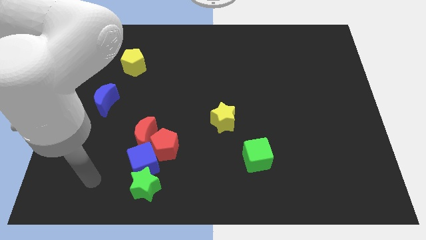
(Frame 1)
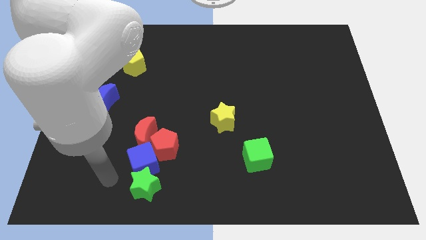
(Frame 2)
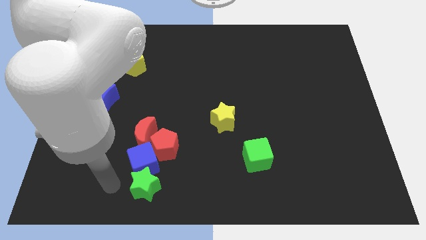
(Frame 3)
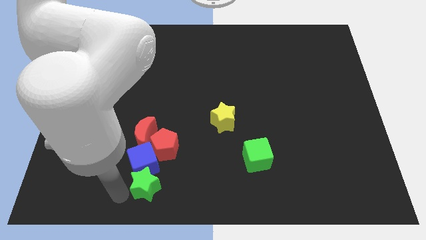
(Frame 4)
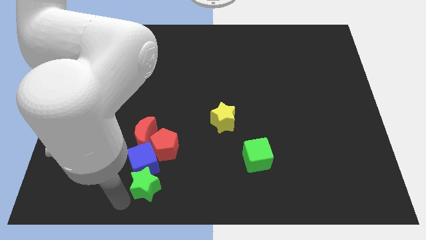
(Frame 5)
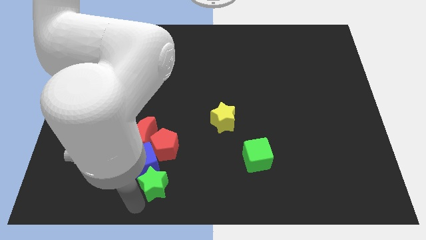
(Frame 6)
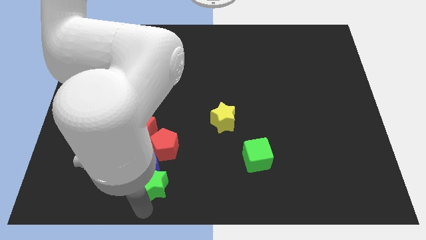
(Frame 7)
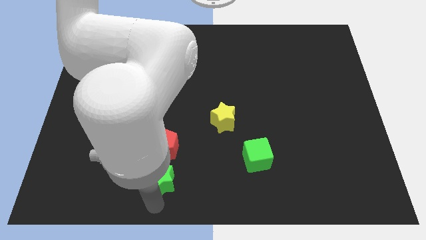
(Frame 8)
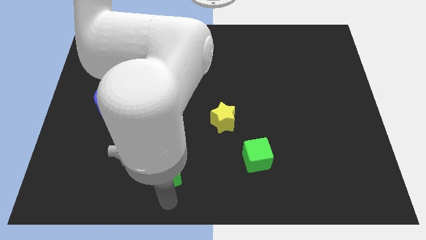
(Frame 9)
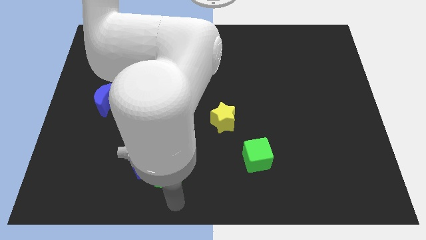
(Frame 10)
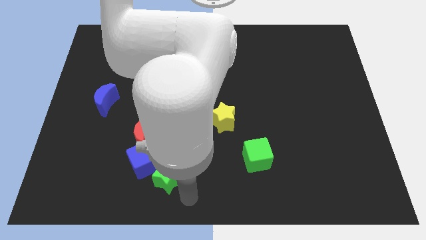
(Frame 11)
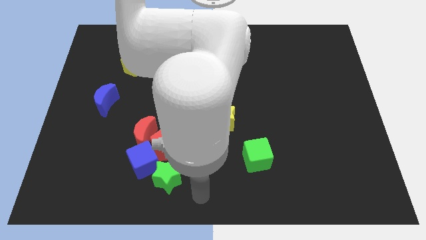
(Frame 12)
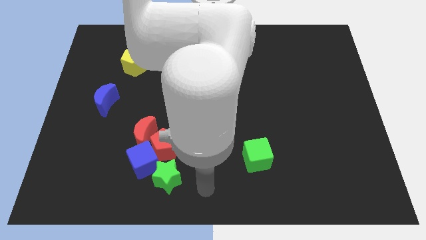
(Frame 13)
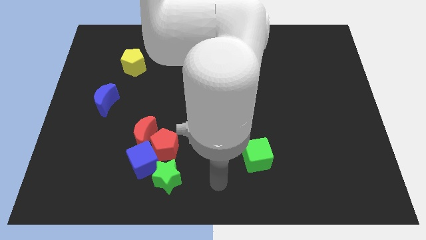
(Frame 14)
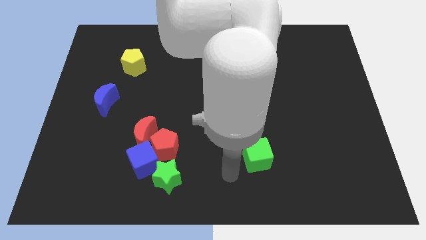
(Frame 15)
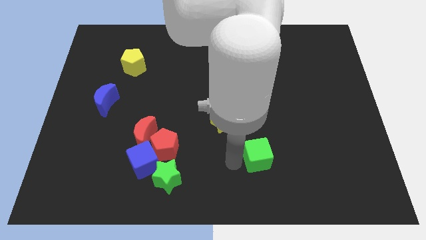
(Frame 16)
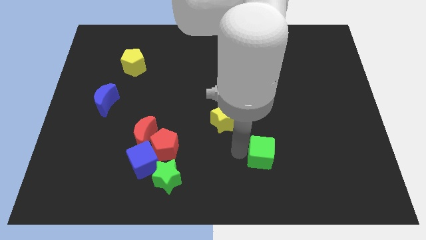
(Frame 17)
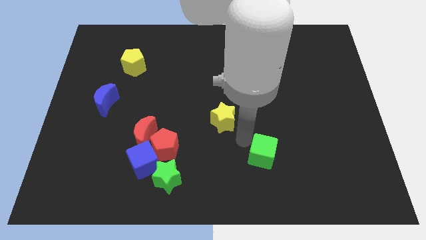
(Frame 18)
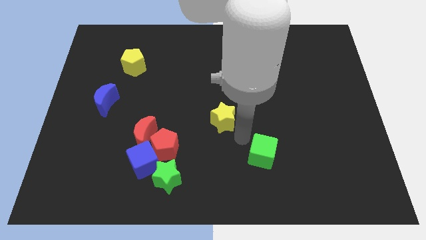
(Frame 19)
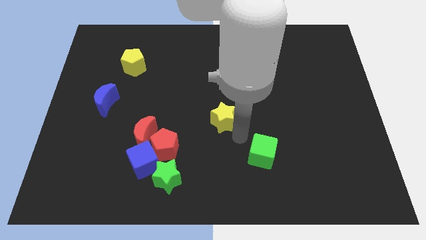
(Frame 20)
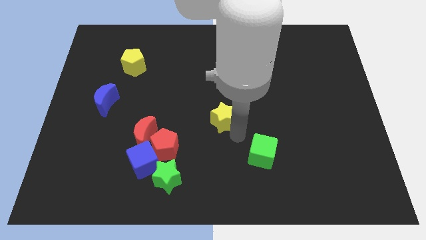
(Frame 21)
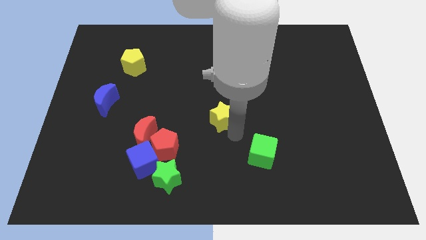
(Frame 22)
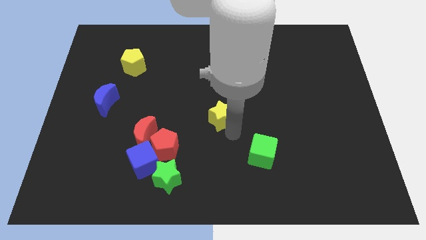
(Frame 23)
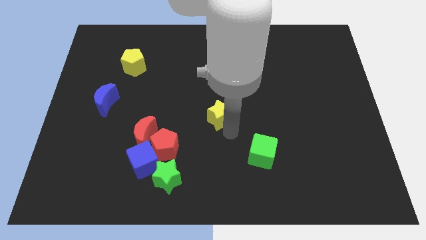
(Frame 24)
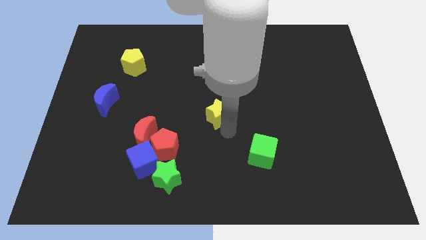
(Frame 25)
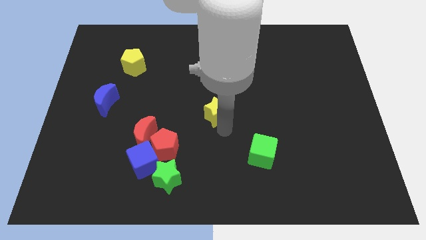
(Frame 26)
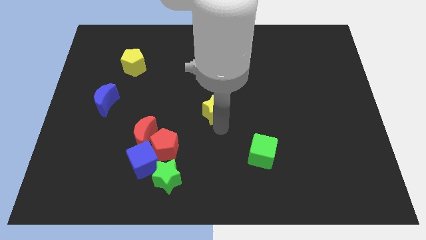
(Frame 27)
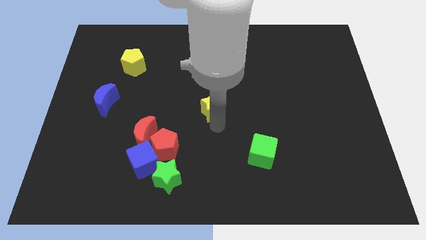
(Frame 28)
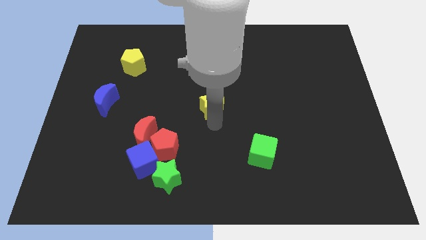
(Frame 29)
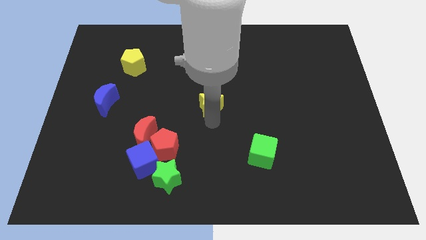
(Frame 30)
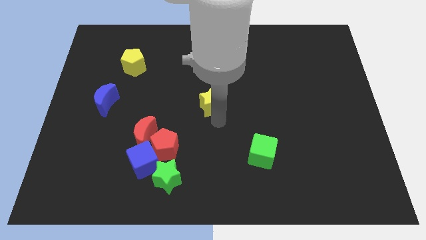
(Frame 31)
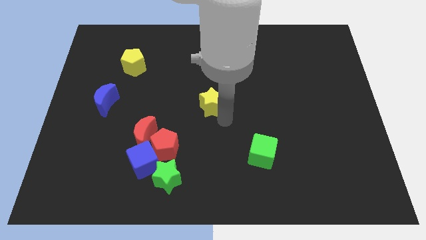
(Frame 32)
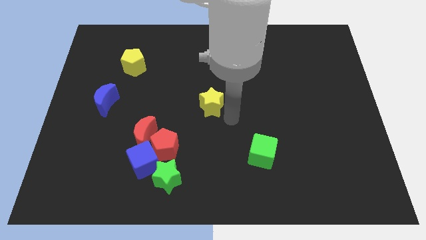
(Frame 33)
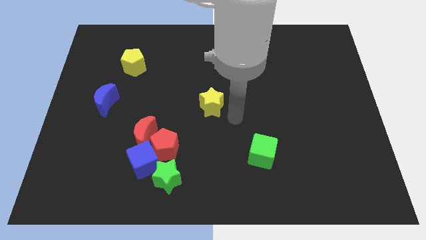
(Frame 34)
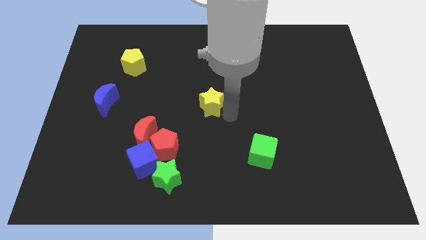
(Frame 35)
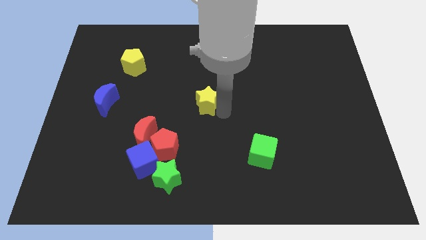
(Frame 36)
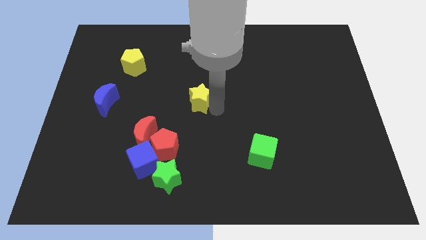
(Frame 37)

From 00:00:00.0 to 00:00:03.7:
push the yellow star up and to the left diagonally slightly

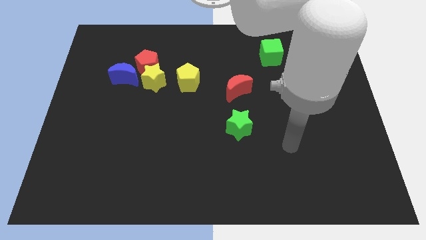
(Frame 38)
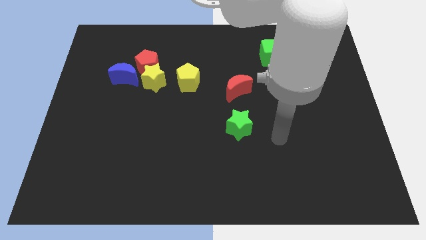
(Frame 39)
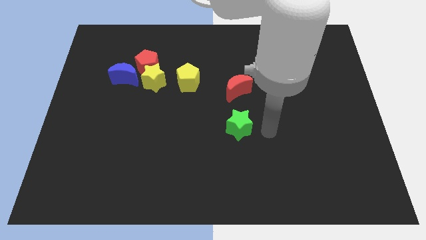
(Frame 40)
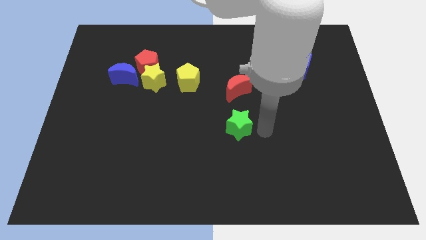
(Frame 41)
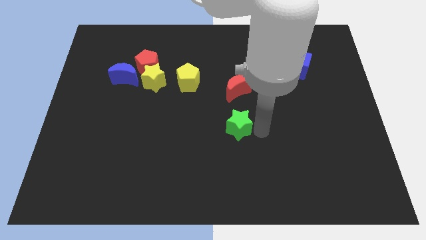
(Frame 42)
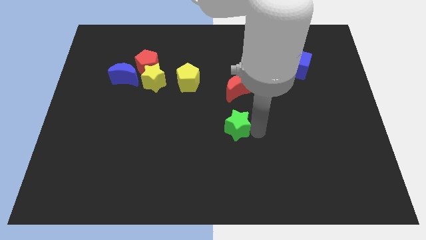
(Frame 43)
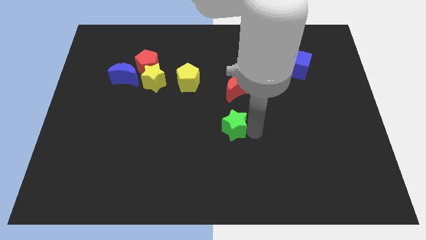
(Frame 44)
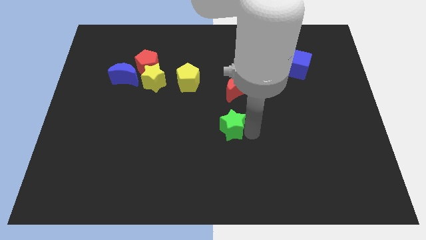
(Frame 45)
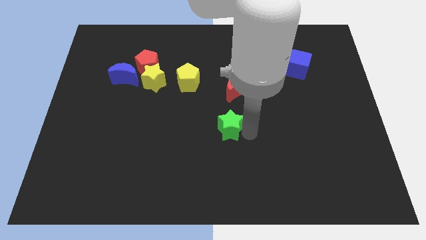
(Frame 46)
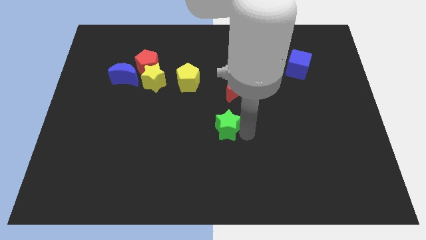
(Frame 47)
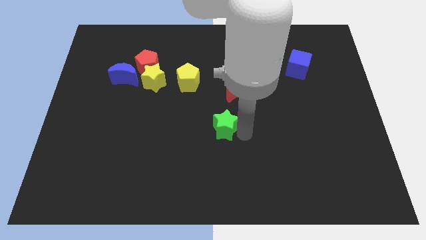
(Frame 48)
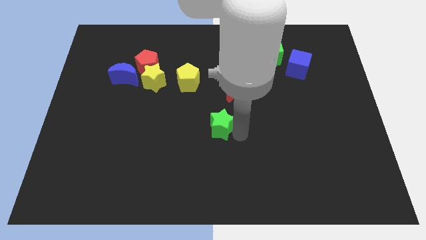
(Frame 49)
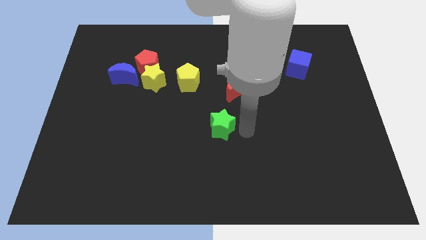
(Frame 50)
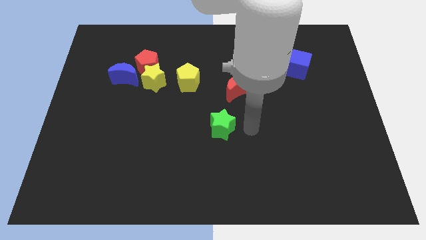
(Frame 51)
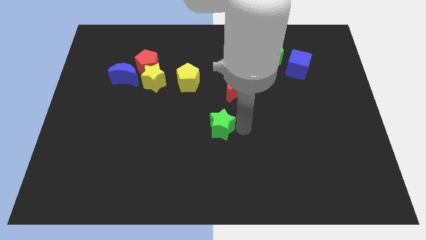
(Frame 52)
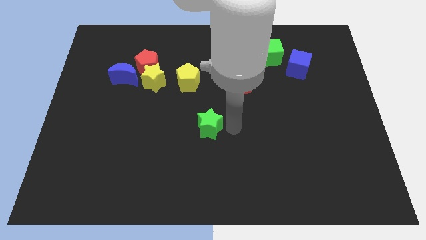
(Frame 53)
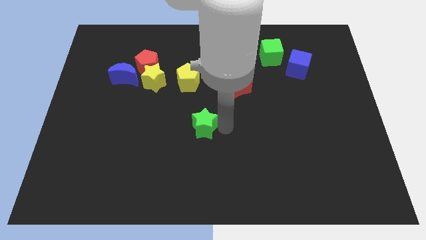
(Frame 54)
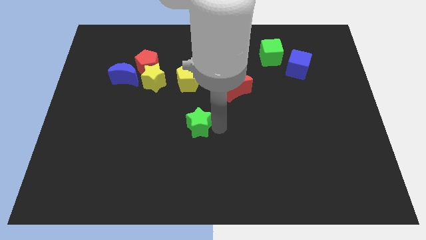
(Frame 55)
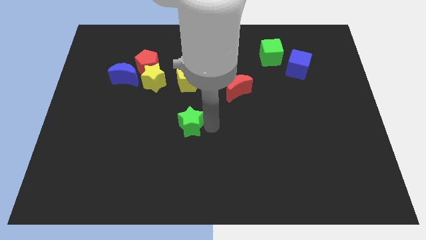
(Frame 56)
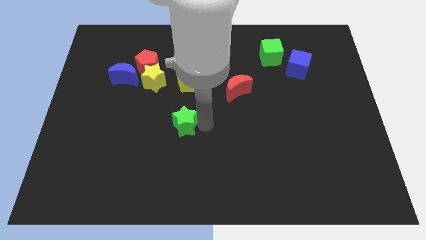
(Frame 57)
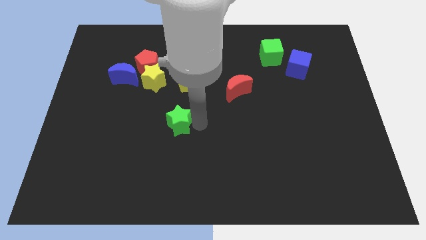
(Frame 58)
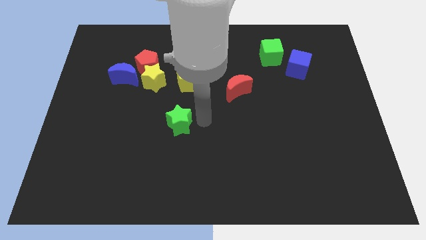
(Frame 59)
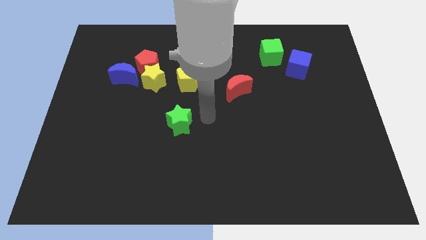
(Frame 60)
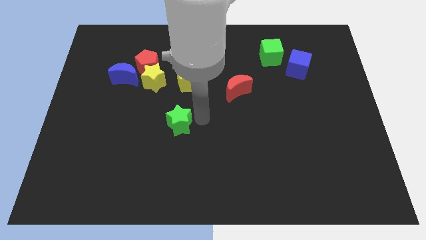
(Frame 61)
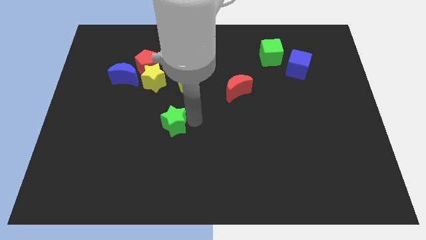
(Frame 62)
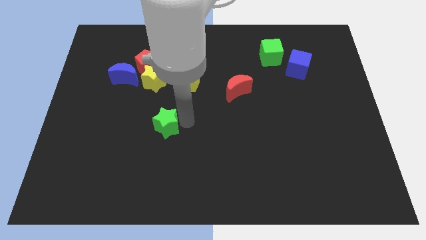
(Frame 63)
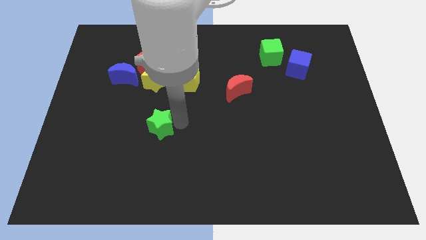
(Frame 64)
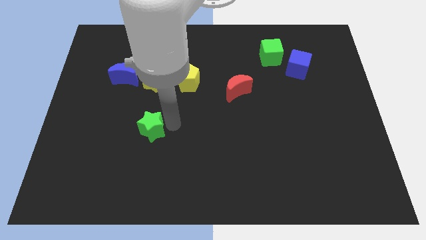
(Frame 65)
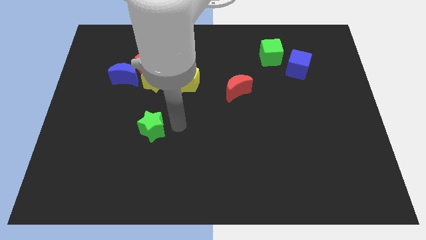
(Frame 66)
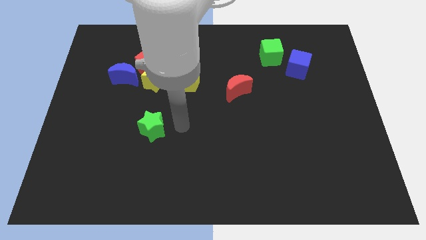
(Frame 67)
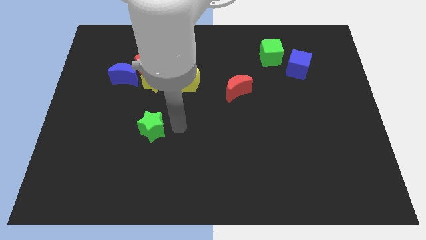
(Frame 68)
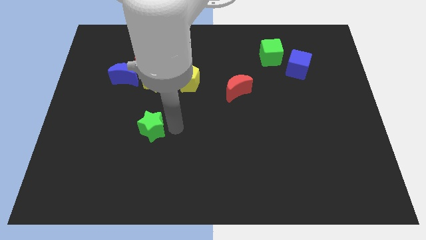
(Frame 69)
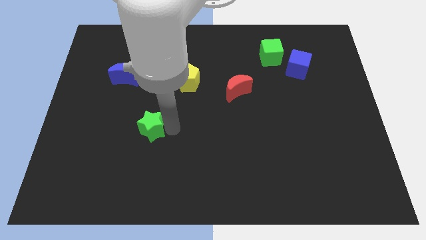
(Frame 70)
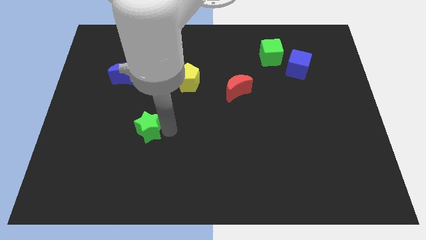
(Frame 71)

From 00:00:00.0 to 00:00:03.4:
move the green star to the left

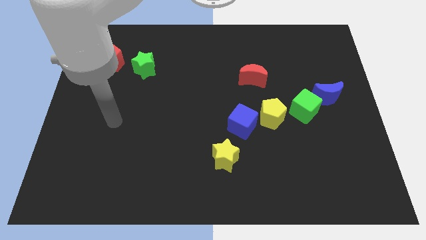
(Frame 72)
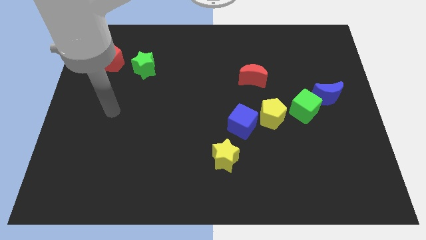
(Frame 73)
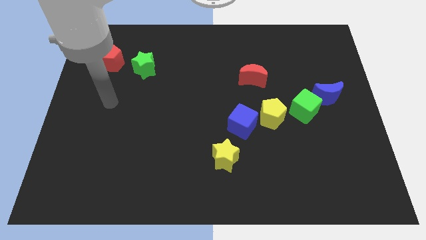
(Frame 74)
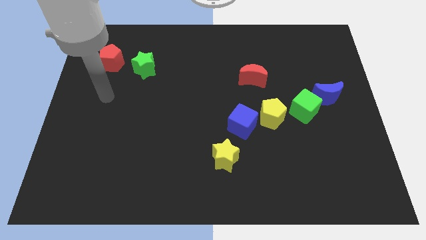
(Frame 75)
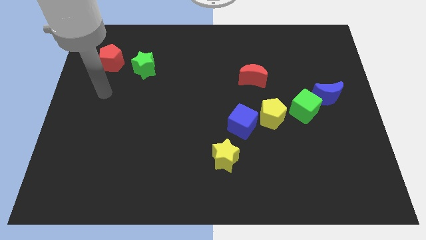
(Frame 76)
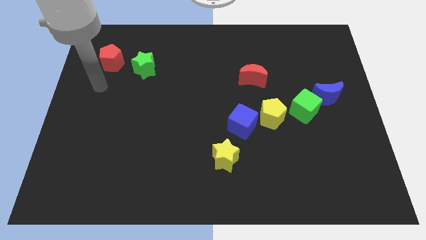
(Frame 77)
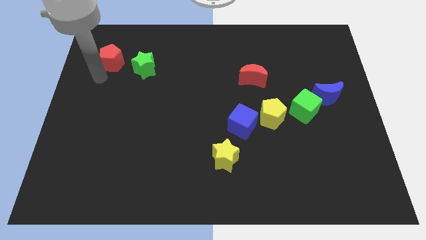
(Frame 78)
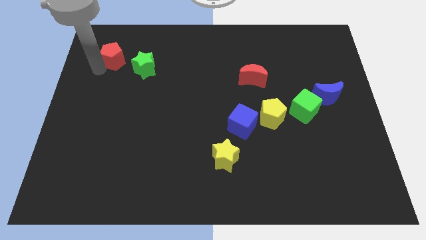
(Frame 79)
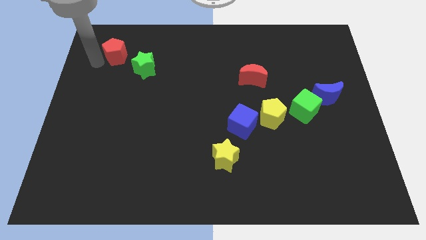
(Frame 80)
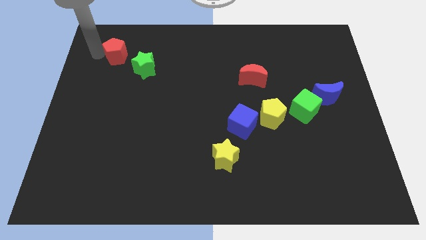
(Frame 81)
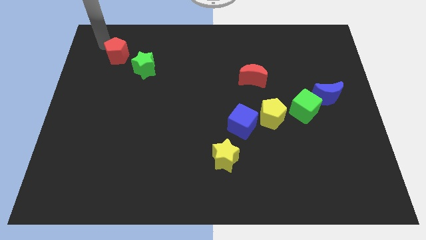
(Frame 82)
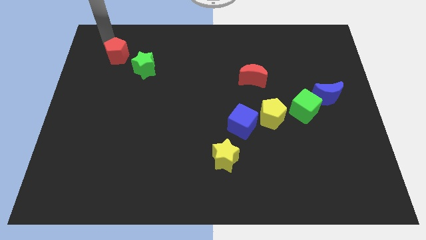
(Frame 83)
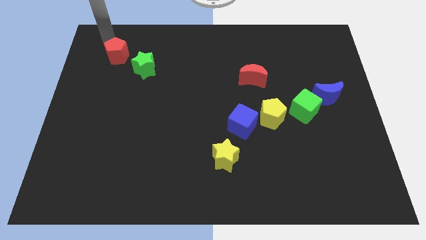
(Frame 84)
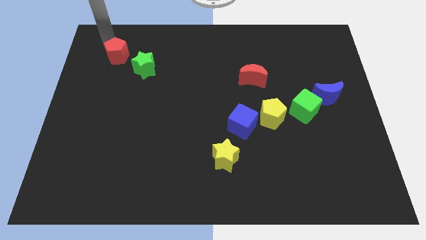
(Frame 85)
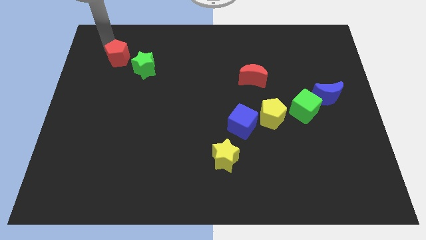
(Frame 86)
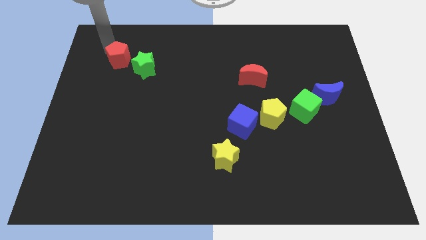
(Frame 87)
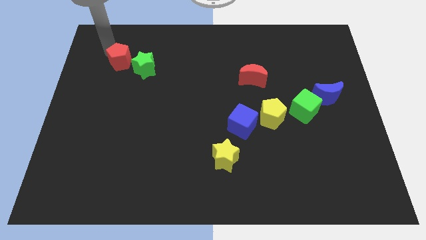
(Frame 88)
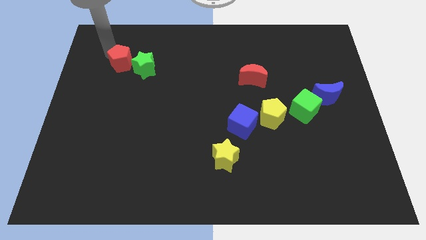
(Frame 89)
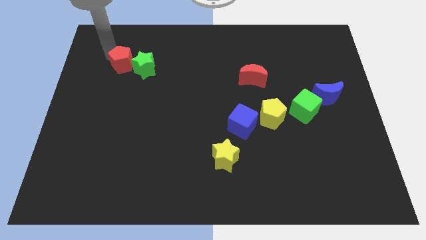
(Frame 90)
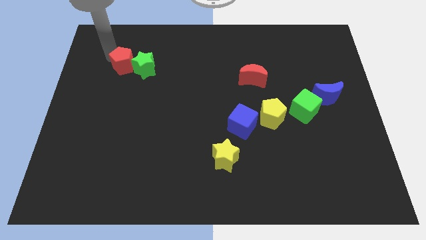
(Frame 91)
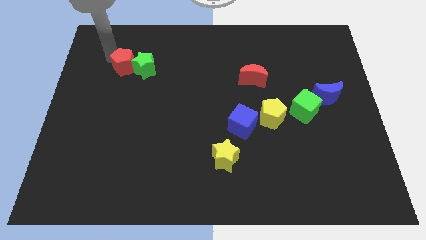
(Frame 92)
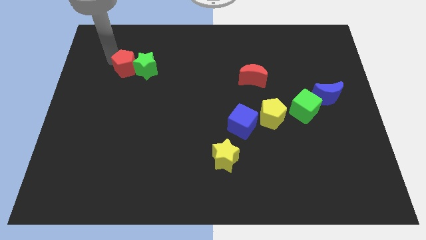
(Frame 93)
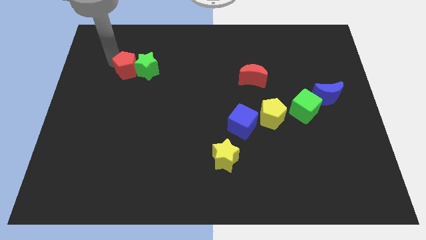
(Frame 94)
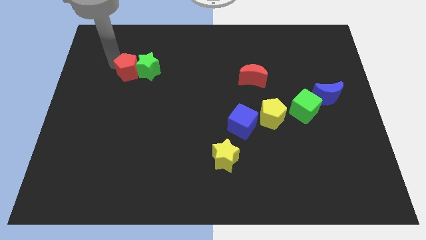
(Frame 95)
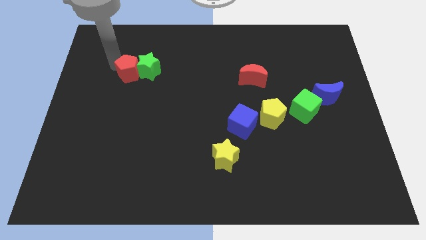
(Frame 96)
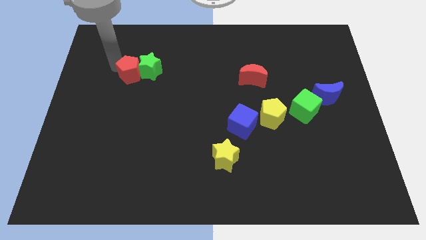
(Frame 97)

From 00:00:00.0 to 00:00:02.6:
slightly push the red pentagon diagonally down and to the right
